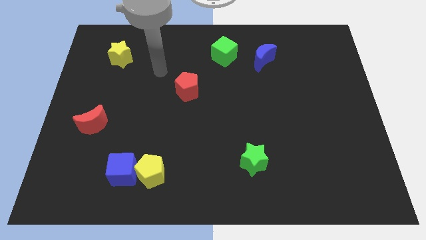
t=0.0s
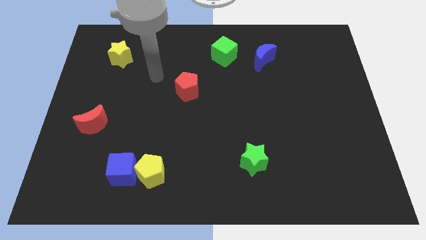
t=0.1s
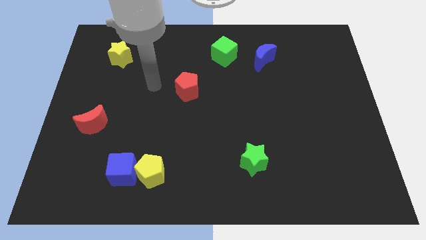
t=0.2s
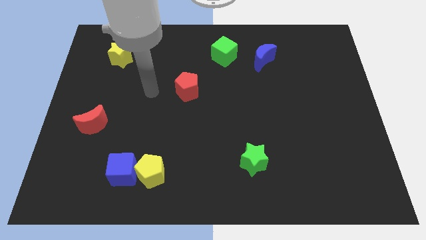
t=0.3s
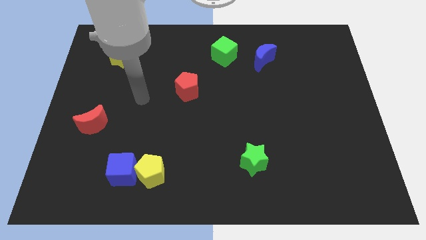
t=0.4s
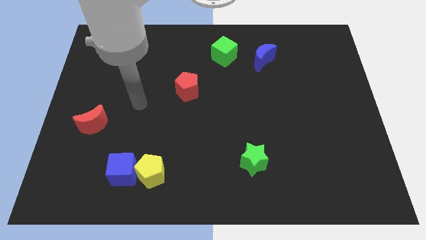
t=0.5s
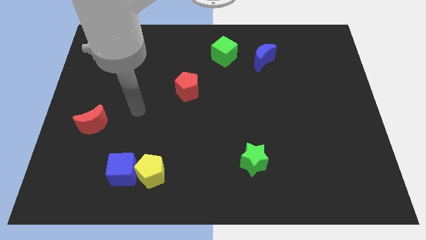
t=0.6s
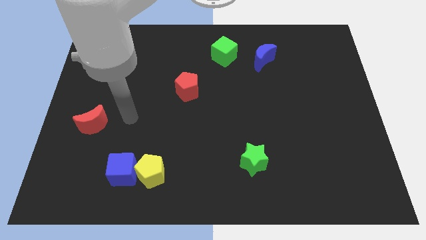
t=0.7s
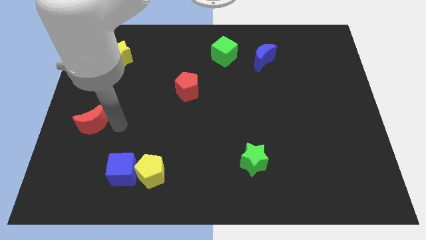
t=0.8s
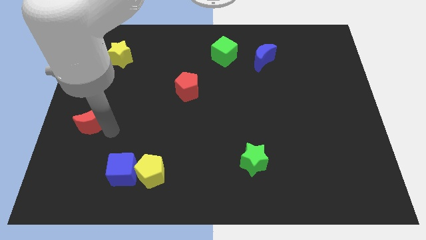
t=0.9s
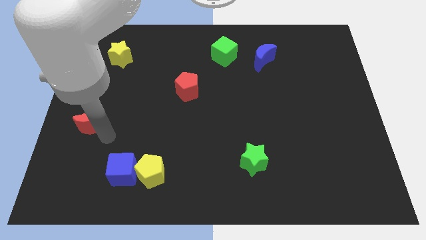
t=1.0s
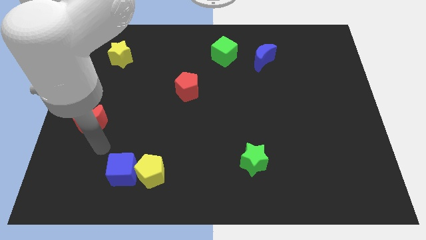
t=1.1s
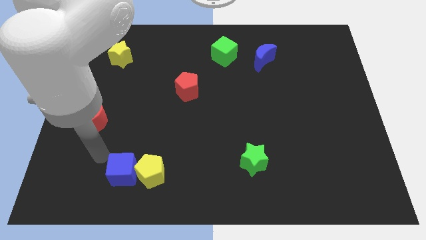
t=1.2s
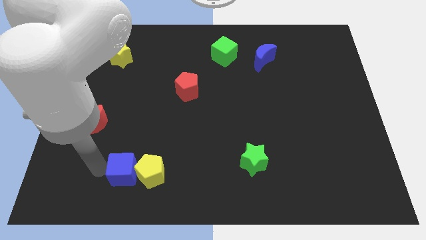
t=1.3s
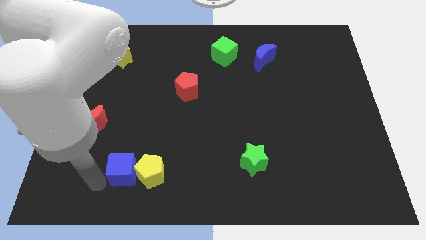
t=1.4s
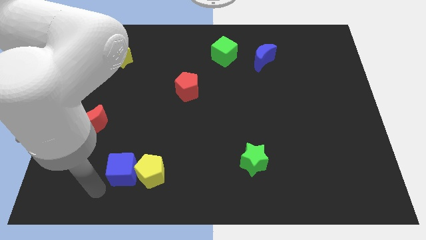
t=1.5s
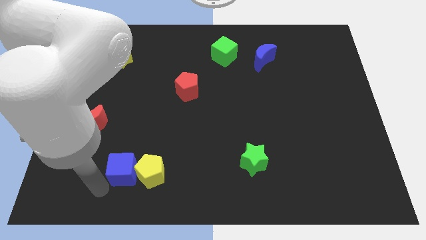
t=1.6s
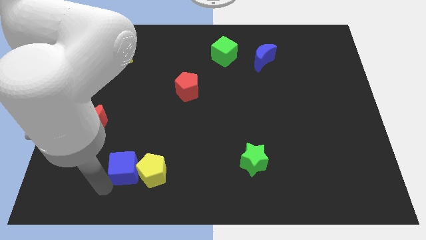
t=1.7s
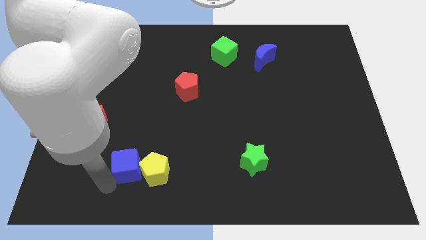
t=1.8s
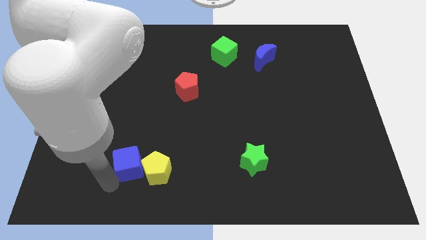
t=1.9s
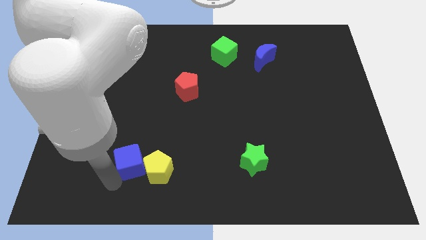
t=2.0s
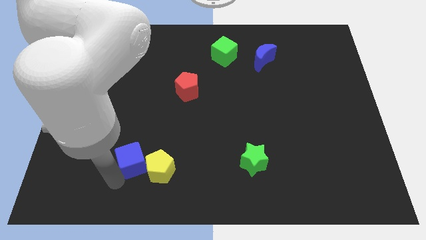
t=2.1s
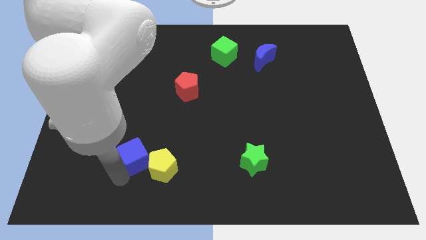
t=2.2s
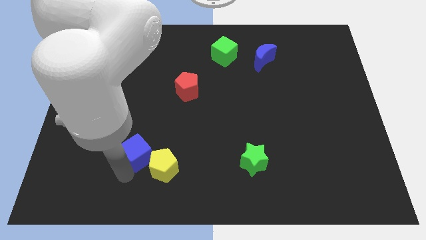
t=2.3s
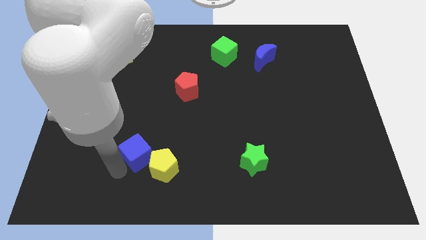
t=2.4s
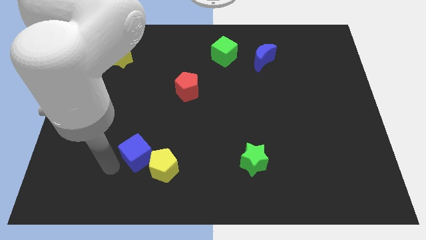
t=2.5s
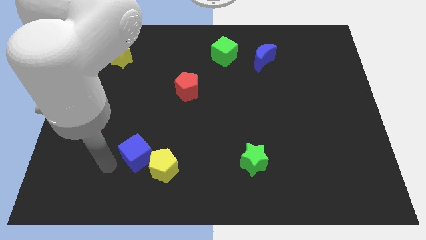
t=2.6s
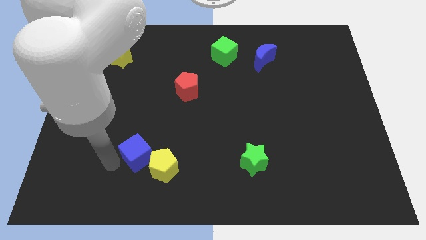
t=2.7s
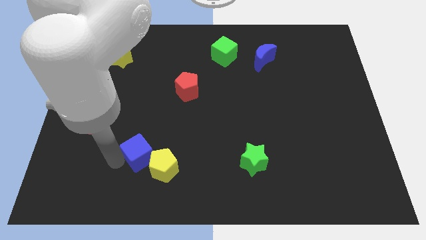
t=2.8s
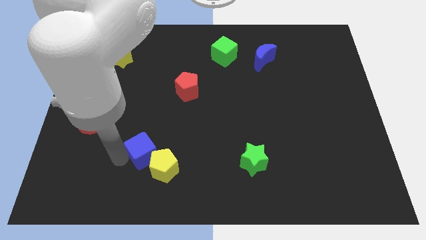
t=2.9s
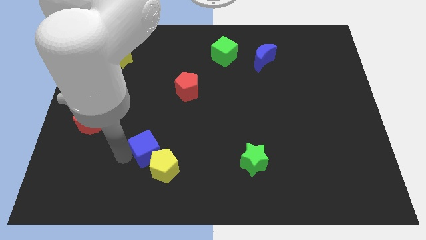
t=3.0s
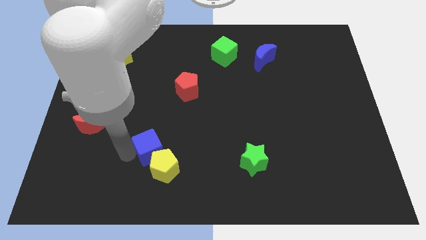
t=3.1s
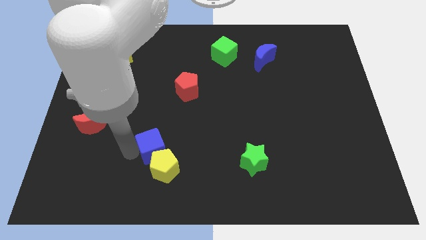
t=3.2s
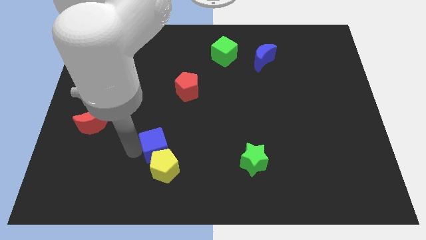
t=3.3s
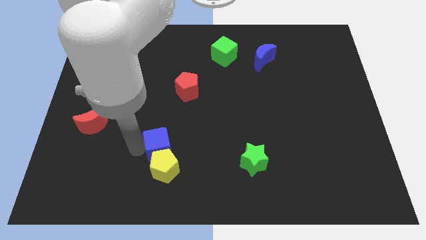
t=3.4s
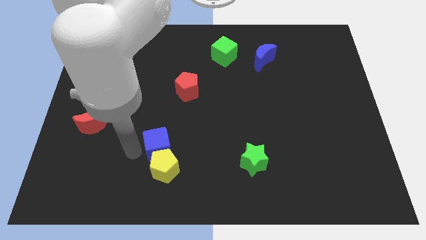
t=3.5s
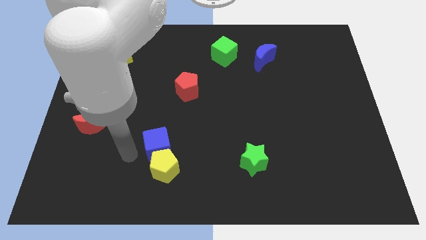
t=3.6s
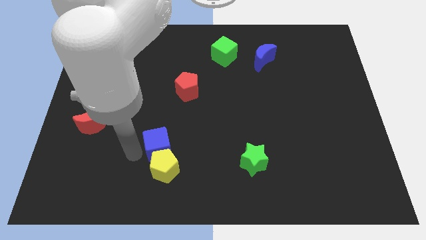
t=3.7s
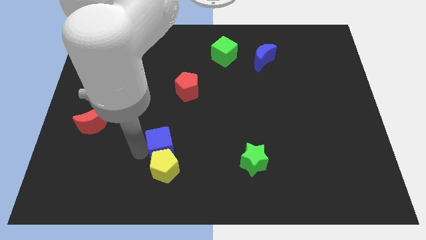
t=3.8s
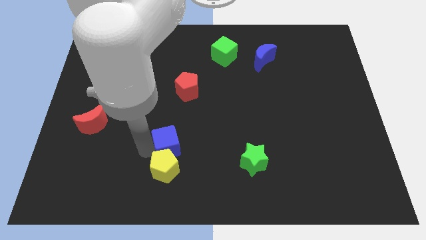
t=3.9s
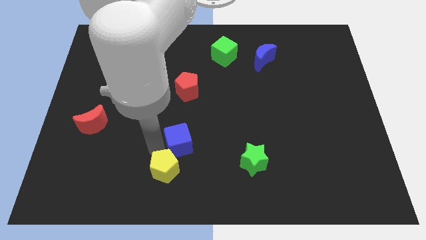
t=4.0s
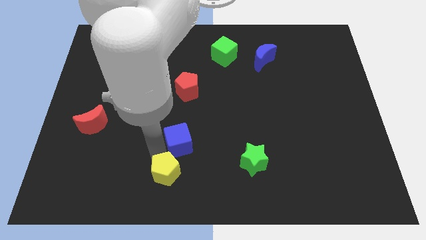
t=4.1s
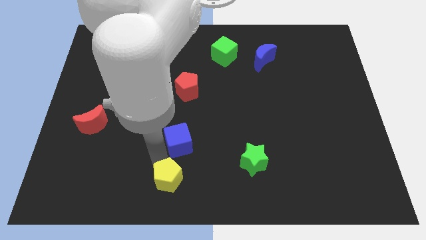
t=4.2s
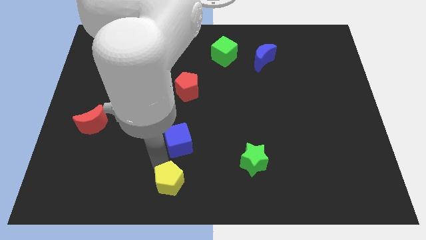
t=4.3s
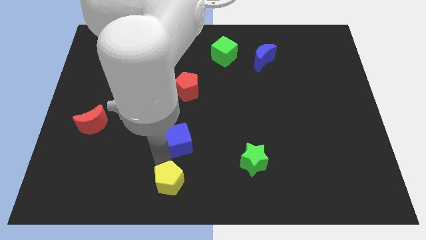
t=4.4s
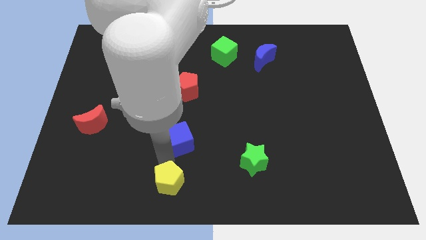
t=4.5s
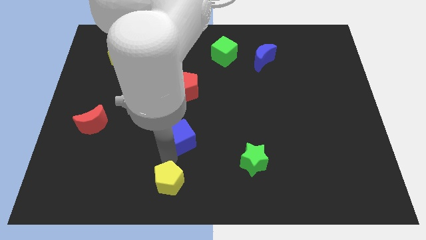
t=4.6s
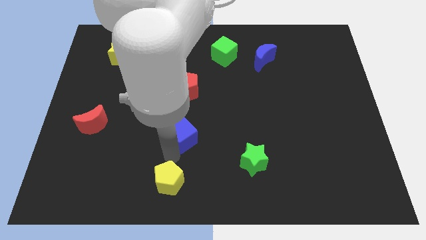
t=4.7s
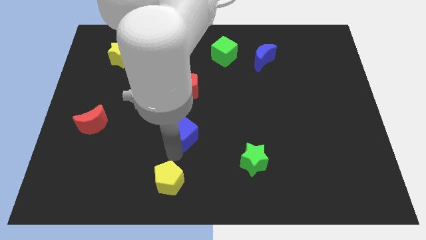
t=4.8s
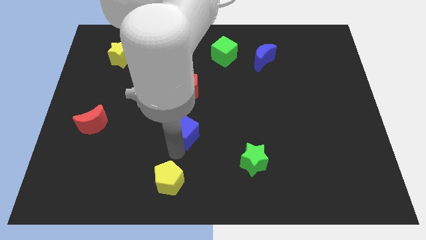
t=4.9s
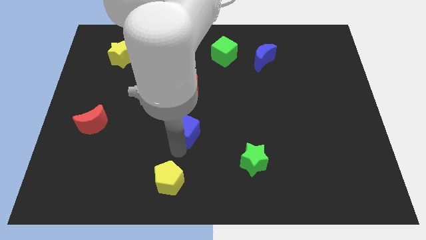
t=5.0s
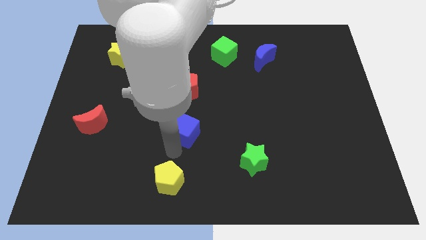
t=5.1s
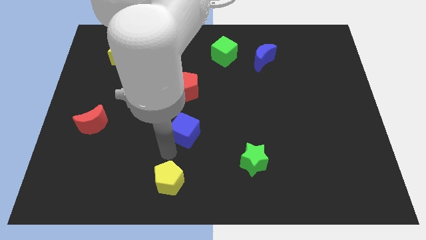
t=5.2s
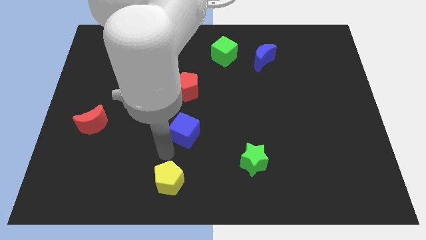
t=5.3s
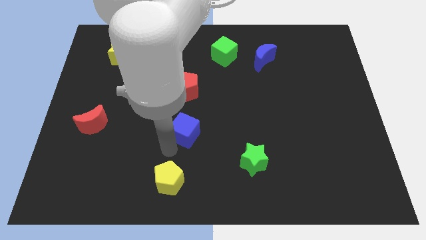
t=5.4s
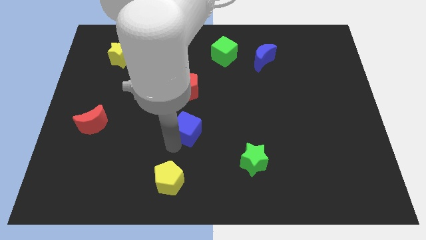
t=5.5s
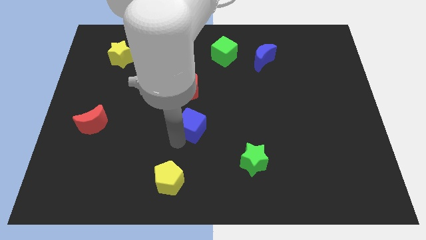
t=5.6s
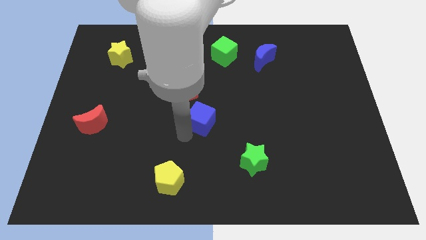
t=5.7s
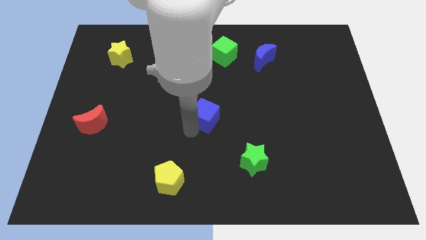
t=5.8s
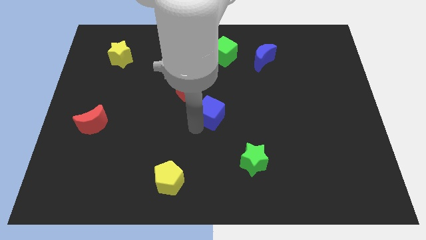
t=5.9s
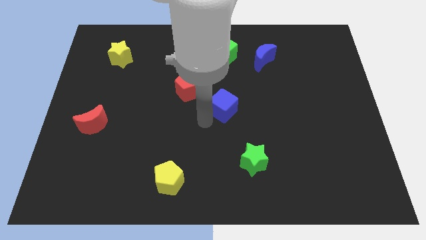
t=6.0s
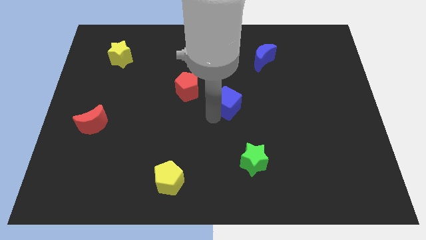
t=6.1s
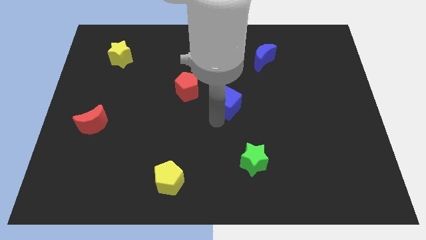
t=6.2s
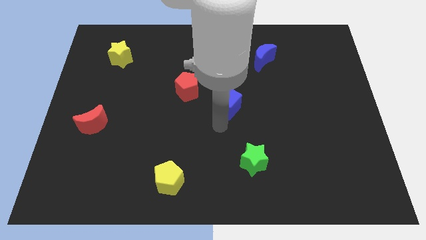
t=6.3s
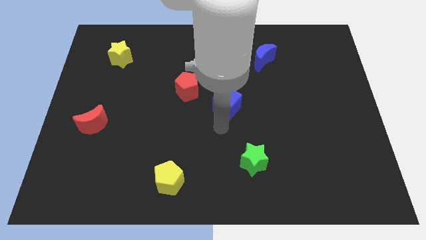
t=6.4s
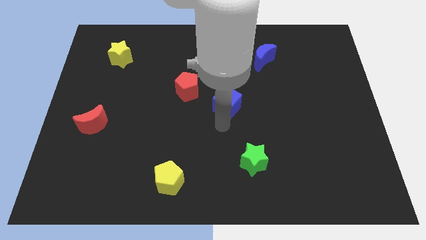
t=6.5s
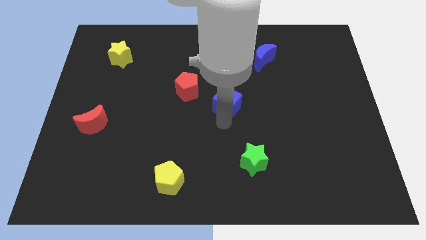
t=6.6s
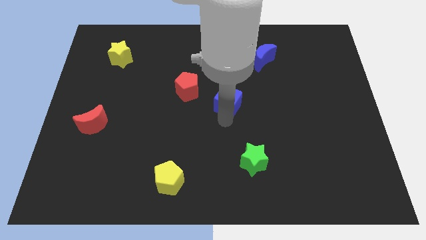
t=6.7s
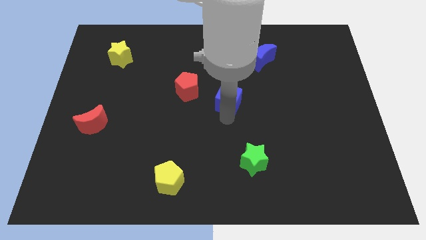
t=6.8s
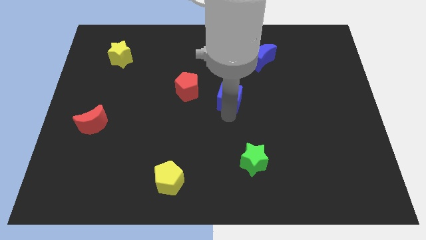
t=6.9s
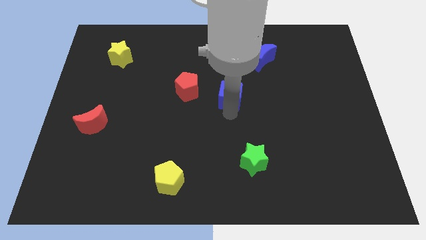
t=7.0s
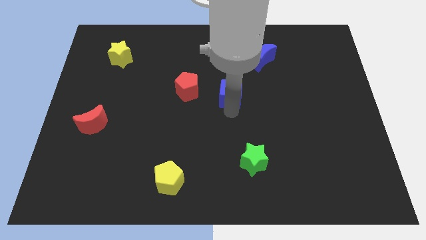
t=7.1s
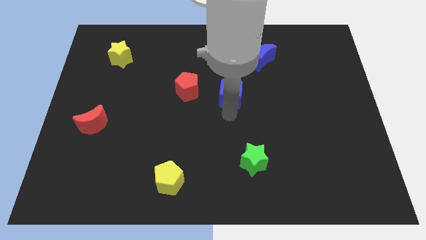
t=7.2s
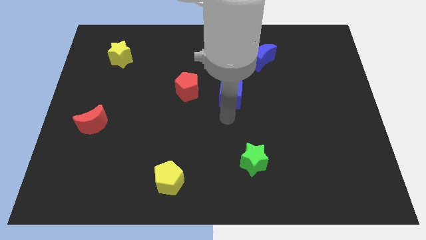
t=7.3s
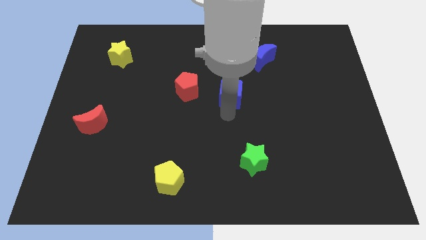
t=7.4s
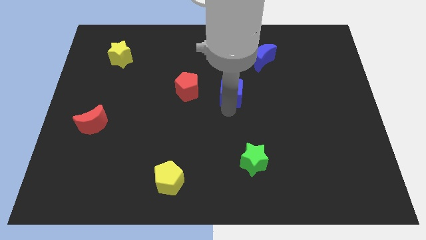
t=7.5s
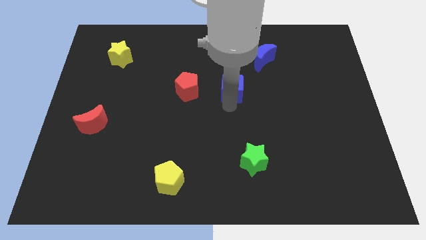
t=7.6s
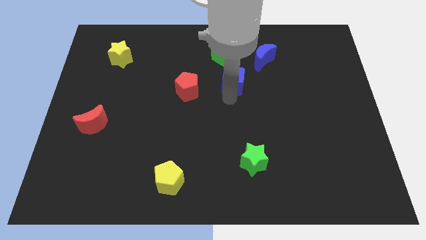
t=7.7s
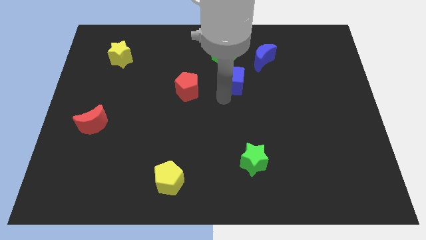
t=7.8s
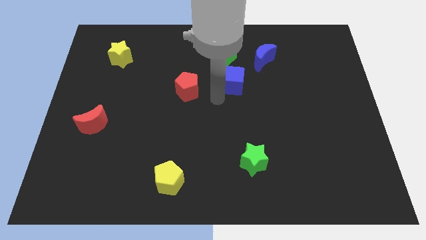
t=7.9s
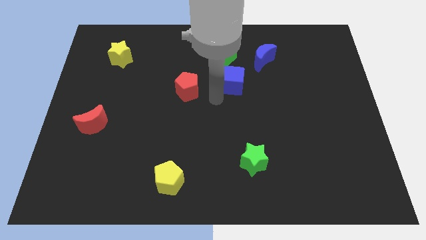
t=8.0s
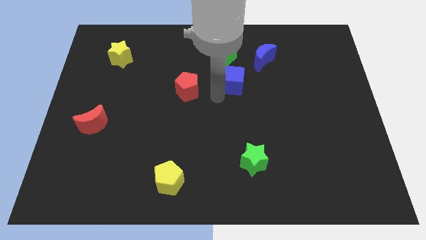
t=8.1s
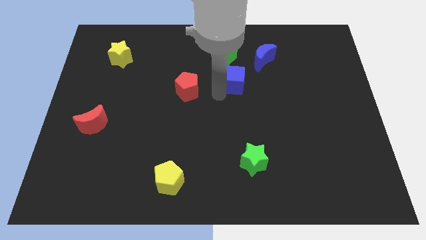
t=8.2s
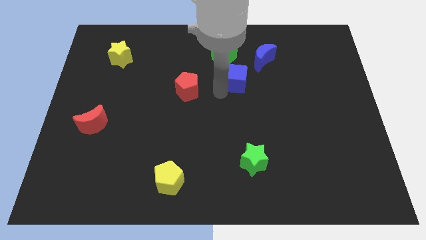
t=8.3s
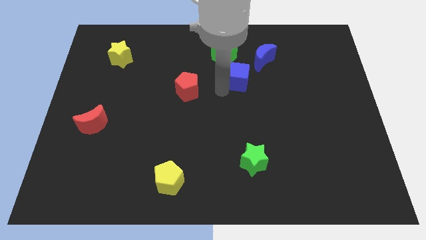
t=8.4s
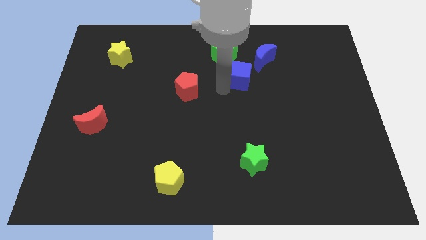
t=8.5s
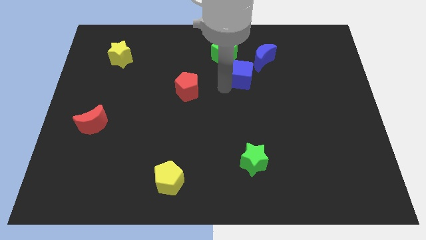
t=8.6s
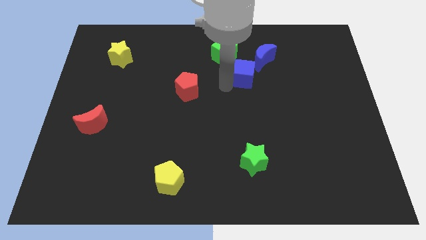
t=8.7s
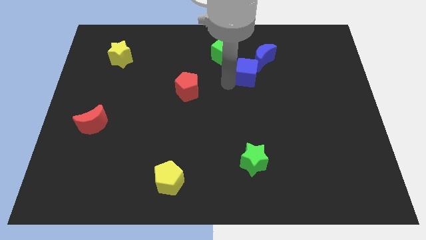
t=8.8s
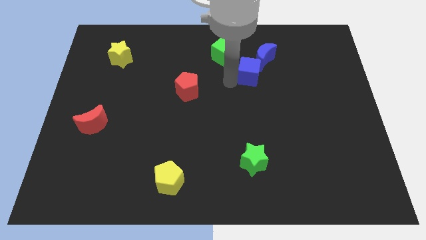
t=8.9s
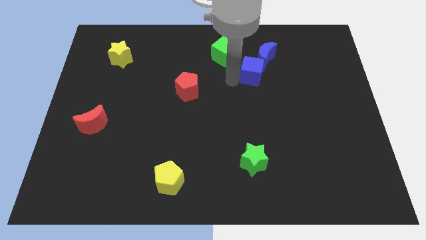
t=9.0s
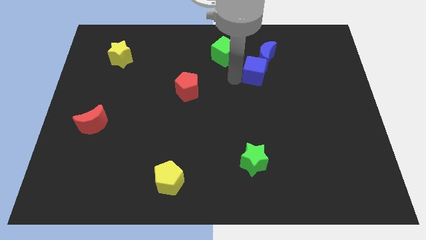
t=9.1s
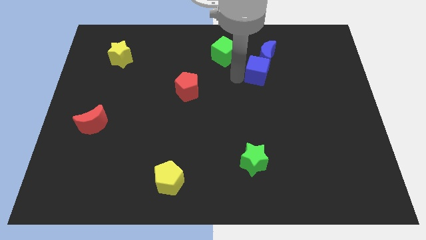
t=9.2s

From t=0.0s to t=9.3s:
push the blue cube towards the blue moon
